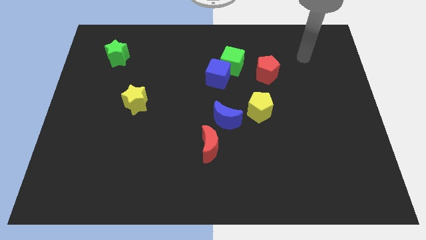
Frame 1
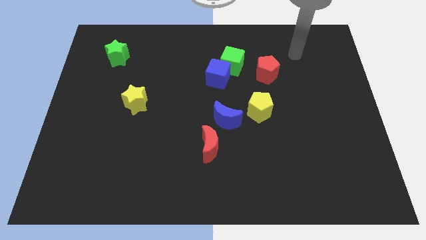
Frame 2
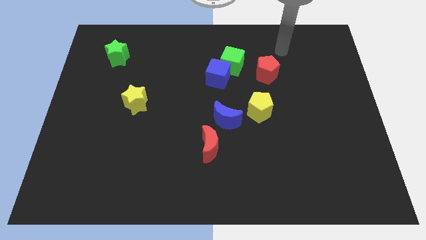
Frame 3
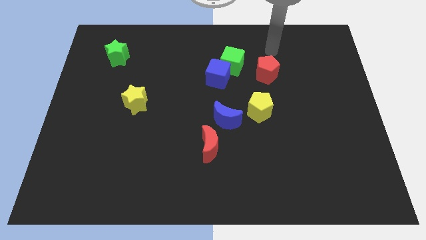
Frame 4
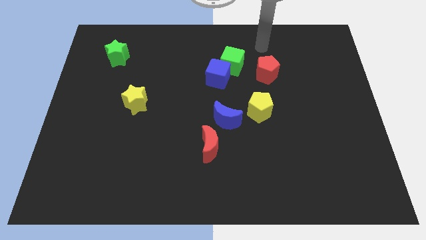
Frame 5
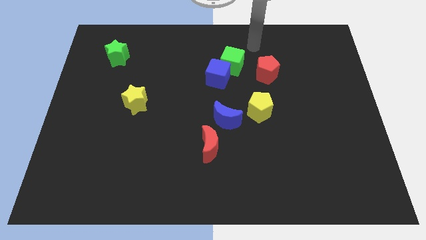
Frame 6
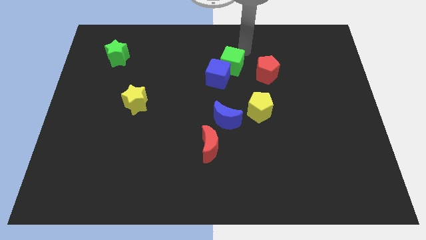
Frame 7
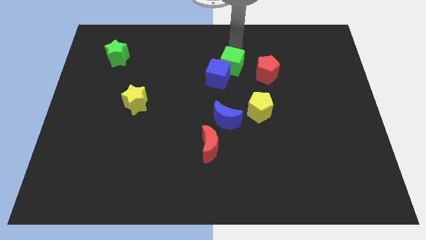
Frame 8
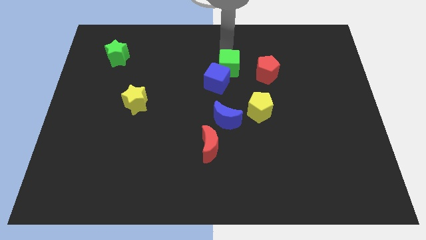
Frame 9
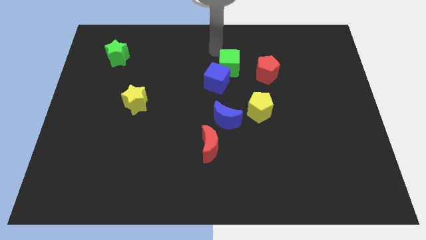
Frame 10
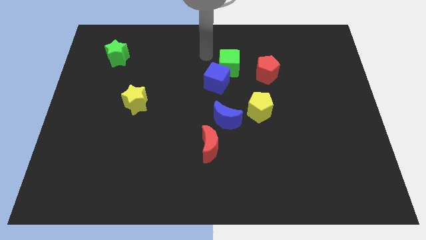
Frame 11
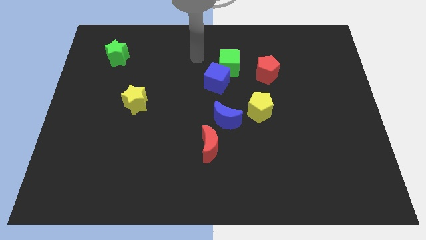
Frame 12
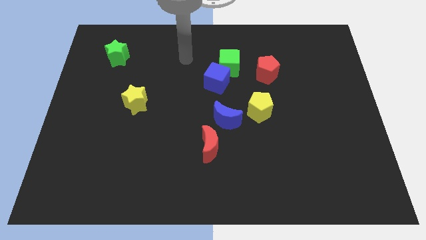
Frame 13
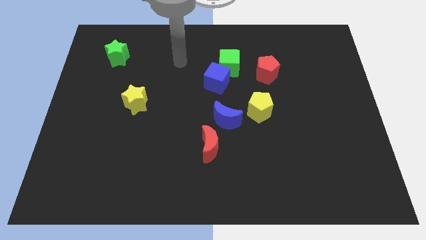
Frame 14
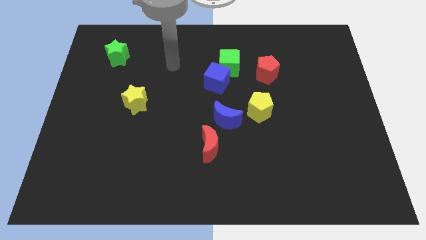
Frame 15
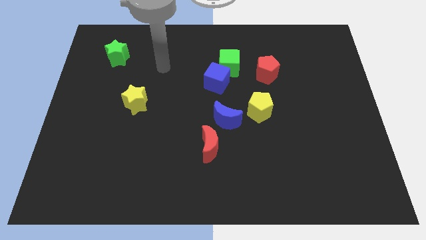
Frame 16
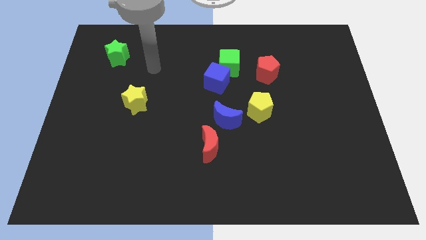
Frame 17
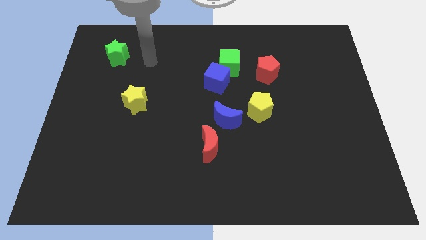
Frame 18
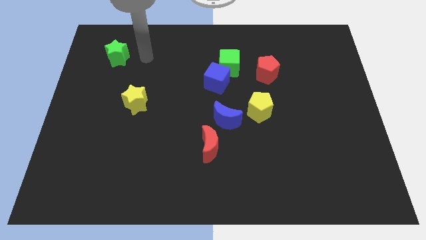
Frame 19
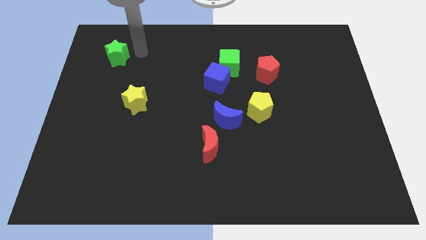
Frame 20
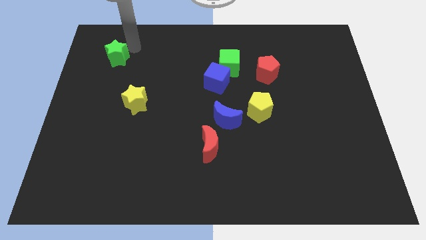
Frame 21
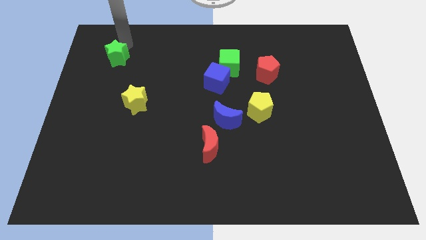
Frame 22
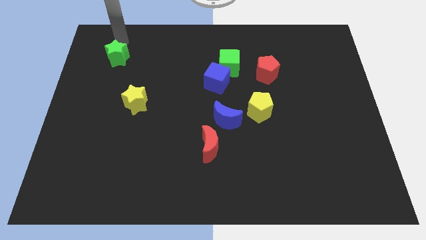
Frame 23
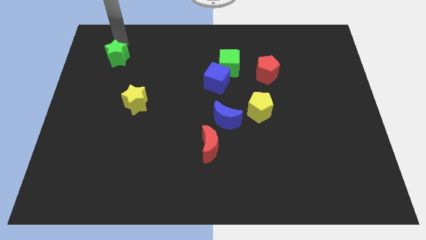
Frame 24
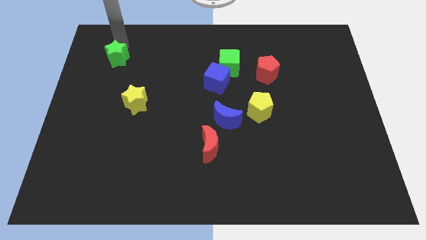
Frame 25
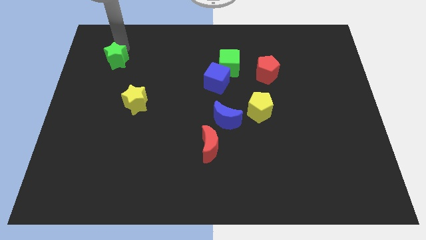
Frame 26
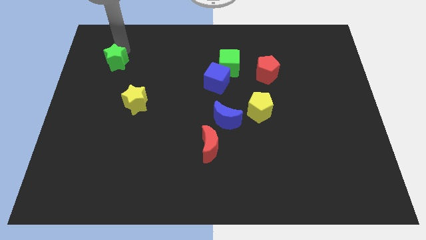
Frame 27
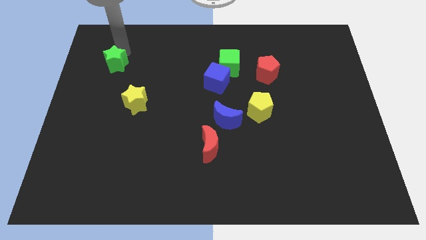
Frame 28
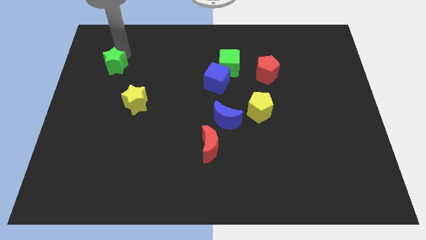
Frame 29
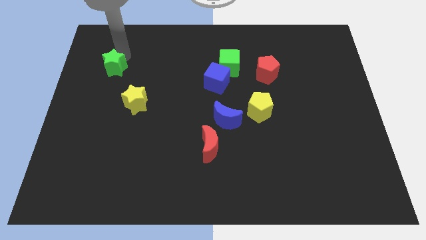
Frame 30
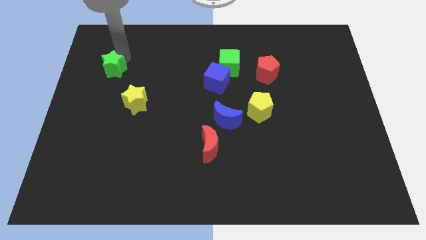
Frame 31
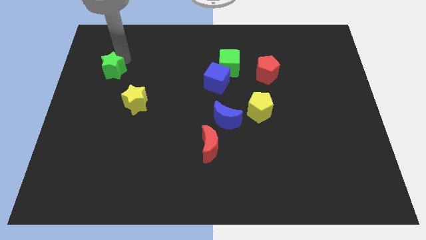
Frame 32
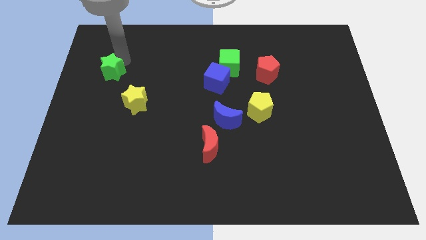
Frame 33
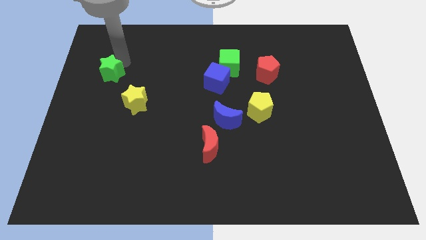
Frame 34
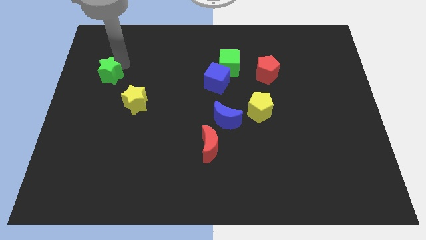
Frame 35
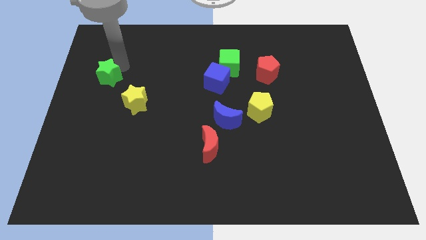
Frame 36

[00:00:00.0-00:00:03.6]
push the green star down a little bit

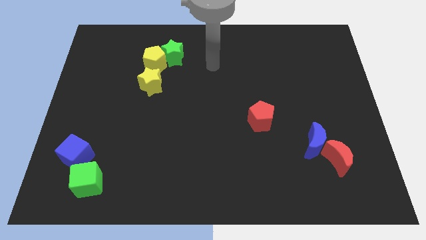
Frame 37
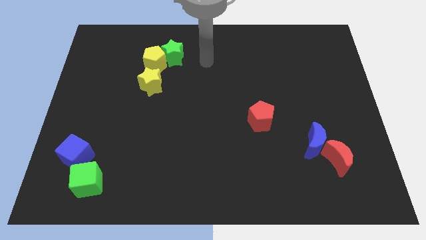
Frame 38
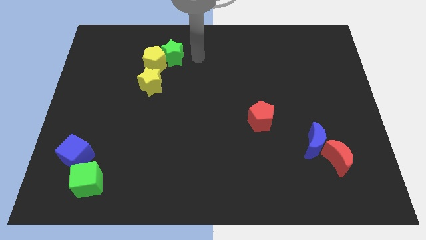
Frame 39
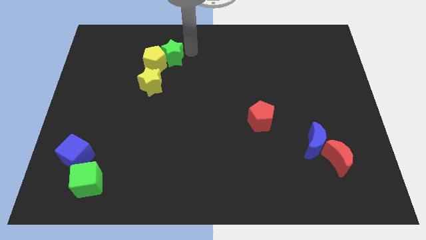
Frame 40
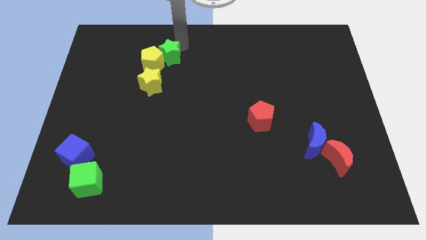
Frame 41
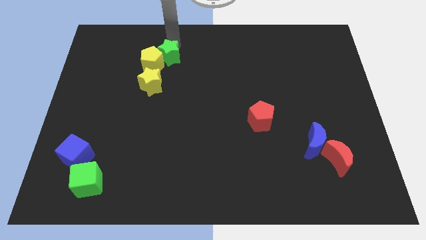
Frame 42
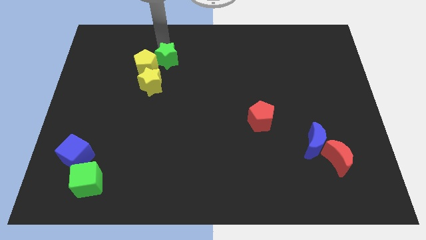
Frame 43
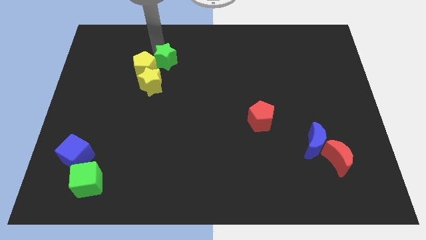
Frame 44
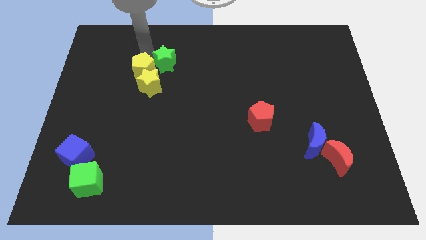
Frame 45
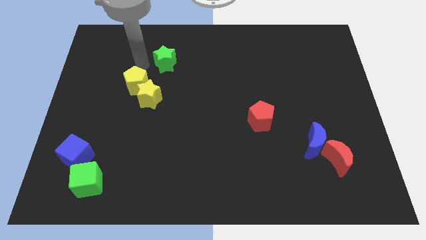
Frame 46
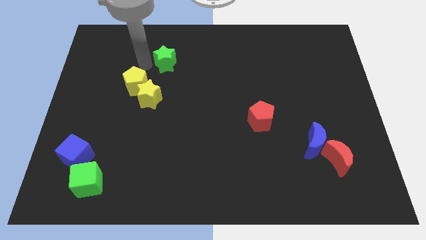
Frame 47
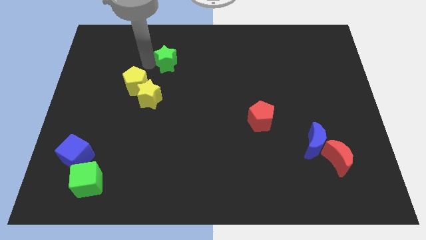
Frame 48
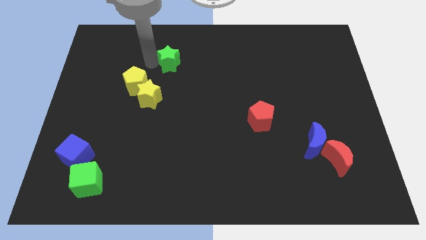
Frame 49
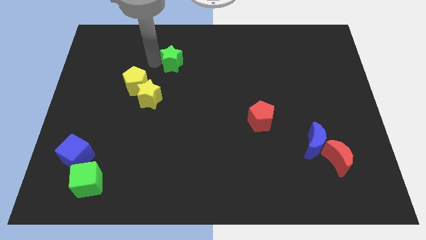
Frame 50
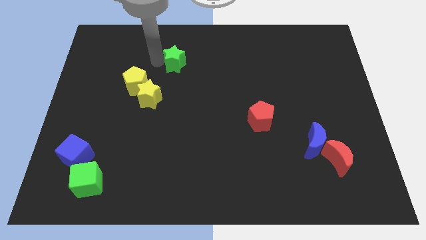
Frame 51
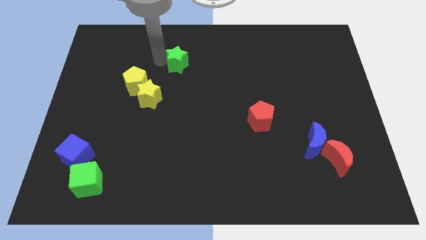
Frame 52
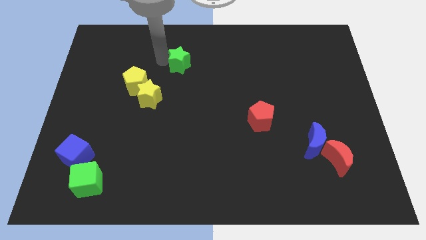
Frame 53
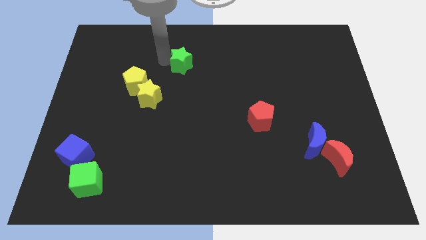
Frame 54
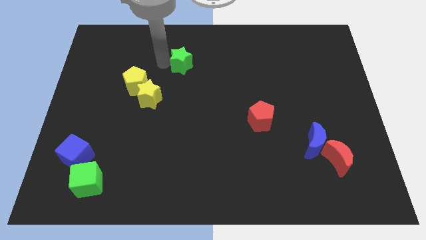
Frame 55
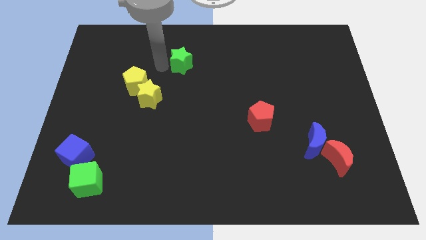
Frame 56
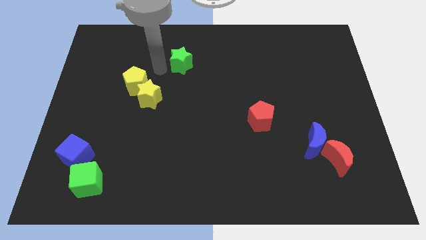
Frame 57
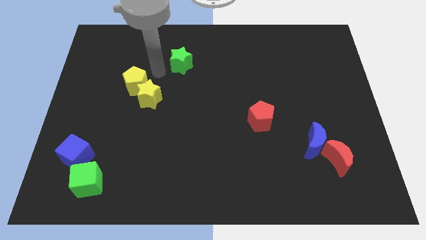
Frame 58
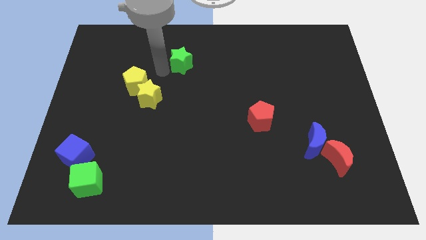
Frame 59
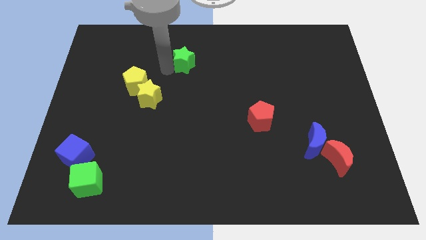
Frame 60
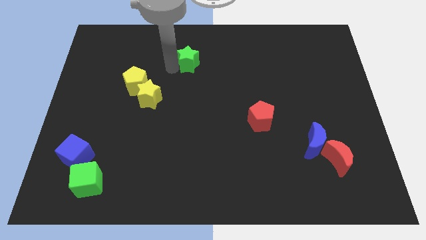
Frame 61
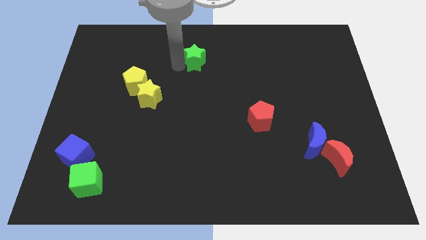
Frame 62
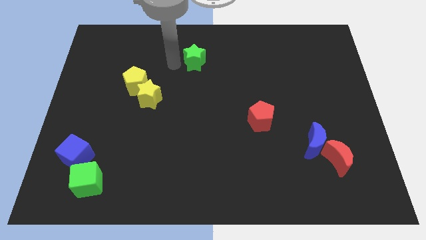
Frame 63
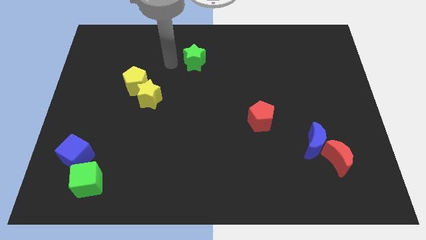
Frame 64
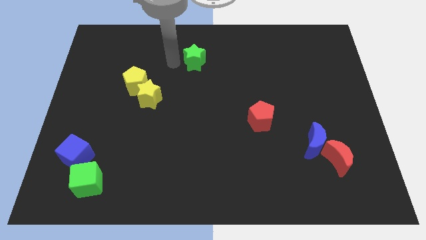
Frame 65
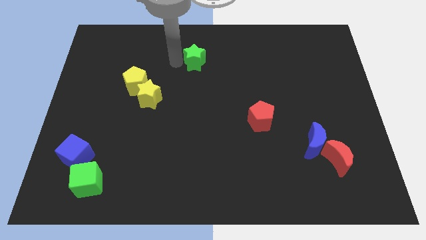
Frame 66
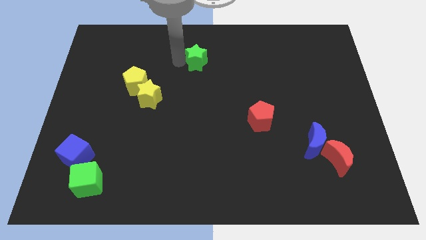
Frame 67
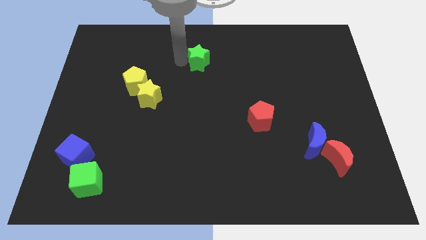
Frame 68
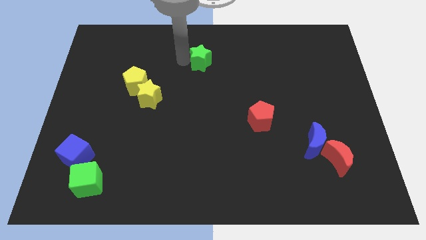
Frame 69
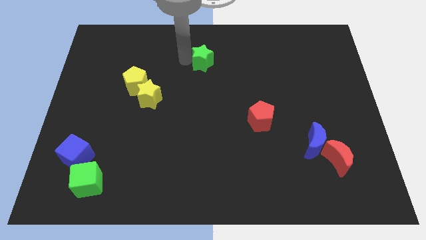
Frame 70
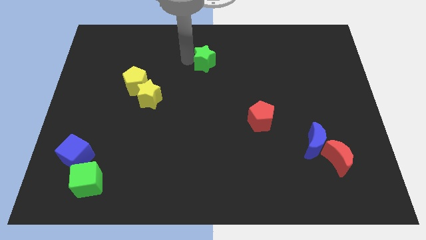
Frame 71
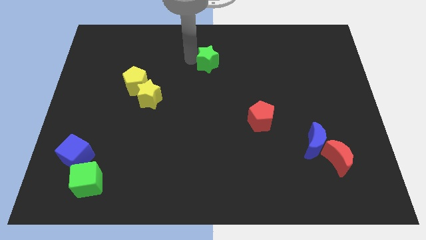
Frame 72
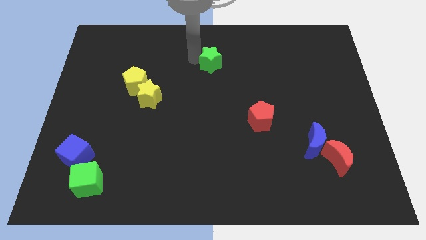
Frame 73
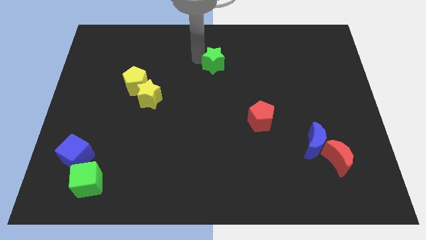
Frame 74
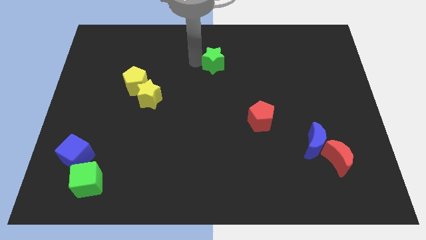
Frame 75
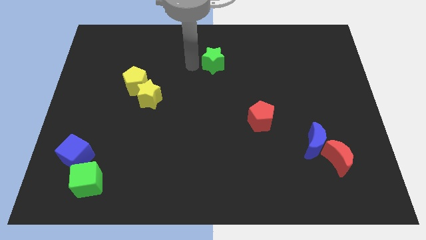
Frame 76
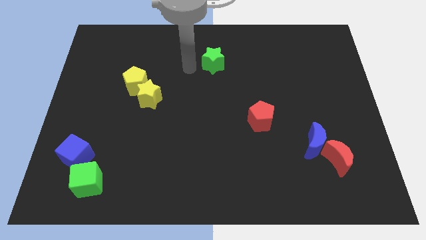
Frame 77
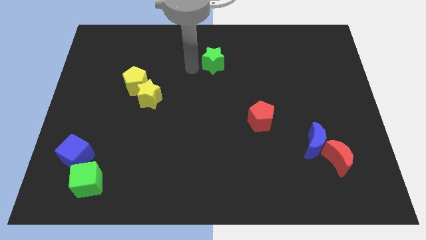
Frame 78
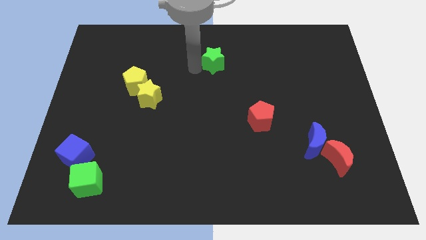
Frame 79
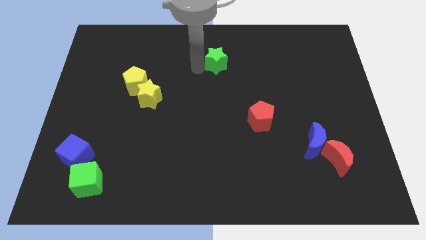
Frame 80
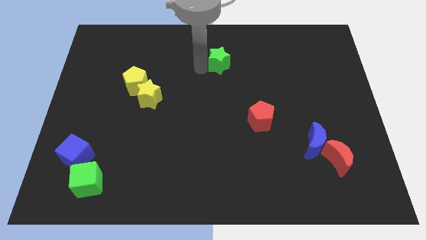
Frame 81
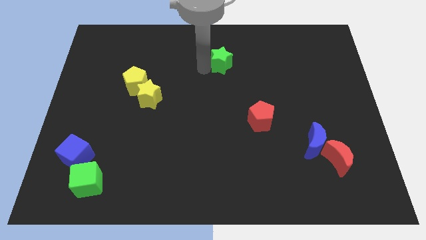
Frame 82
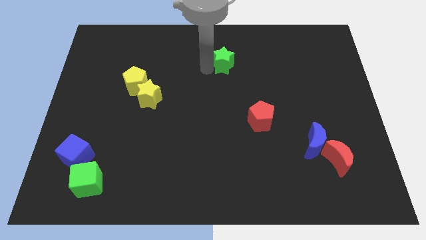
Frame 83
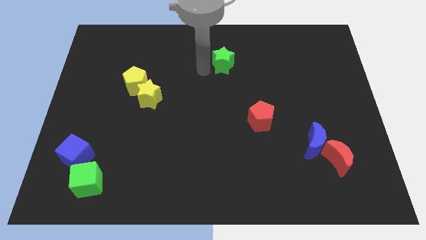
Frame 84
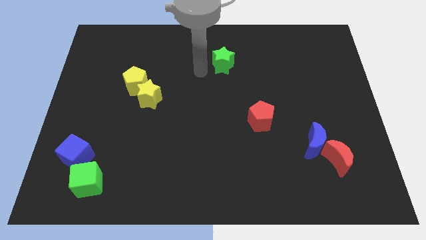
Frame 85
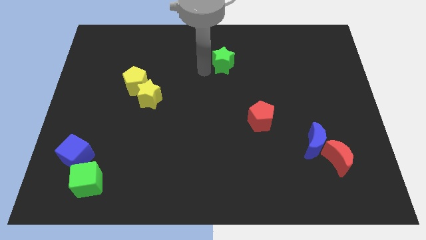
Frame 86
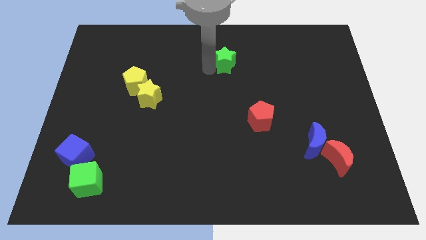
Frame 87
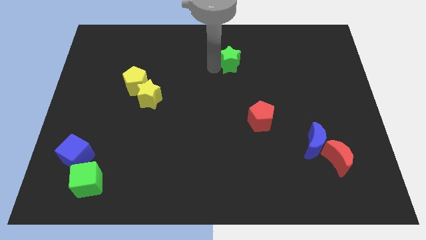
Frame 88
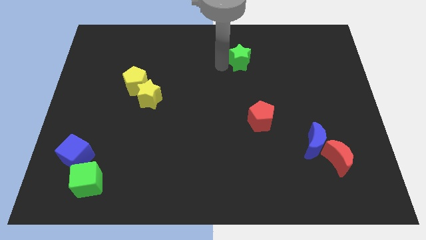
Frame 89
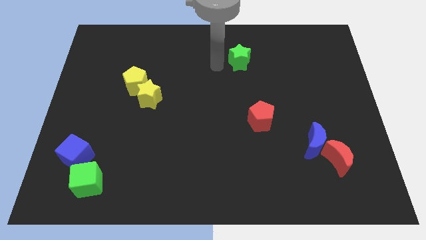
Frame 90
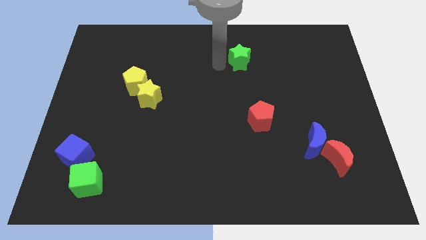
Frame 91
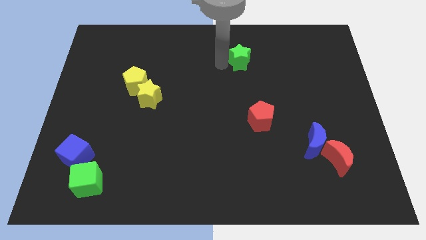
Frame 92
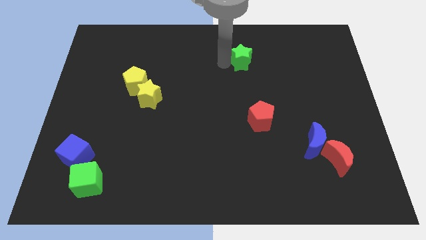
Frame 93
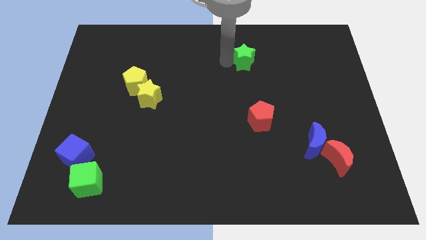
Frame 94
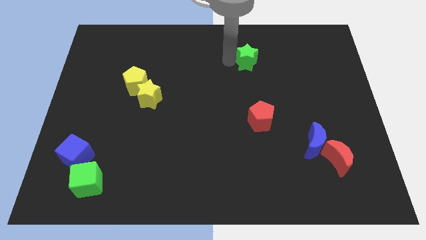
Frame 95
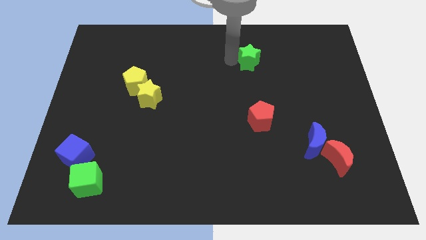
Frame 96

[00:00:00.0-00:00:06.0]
slide the green star right
